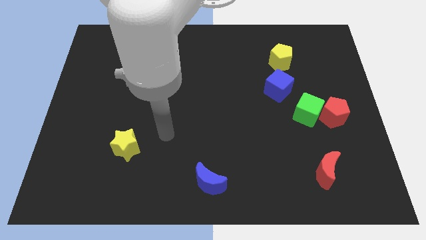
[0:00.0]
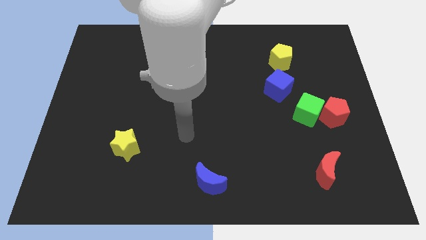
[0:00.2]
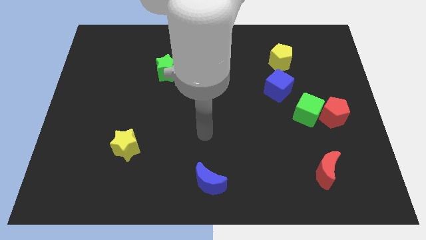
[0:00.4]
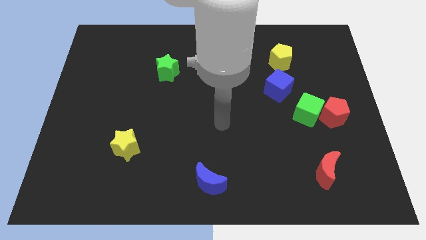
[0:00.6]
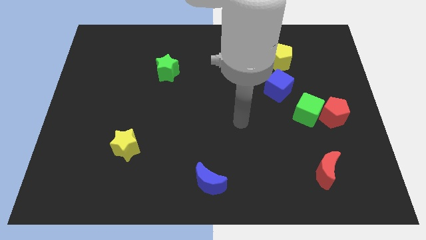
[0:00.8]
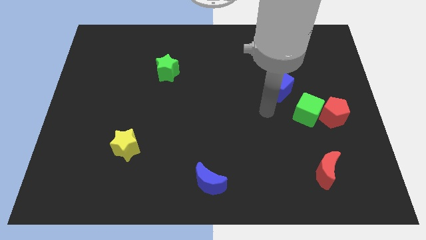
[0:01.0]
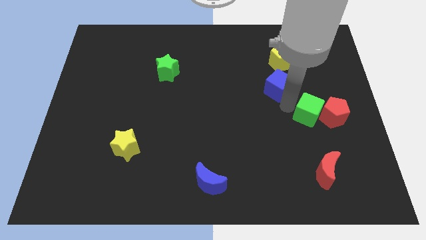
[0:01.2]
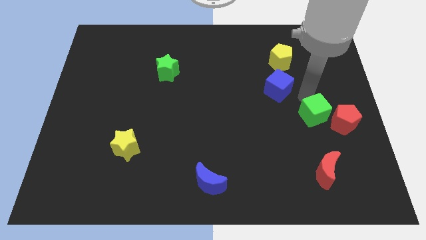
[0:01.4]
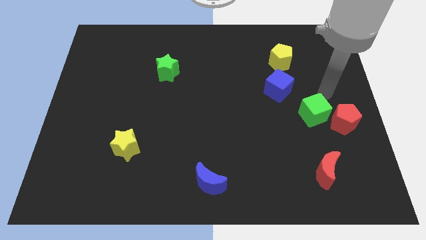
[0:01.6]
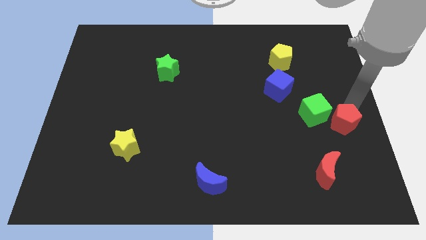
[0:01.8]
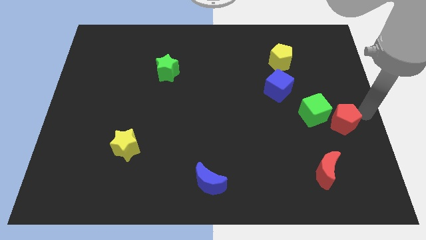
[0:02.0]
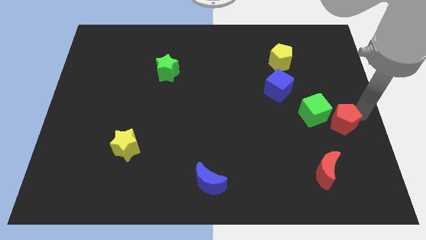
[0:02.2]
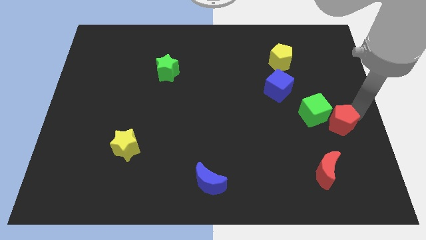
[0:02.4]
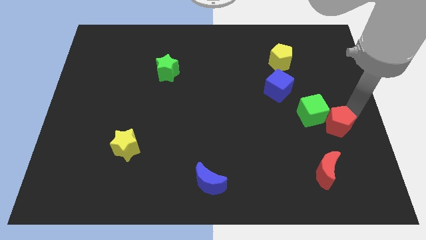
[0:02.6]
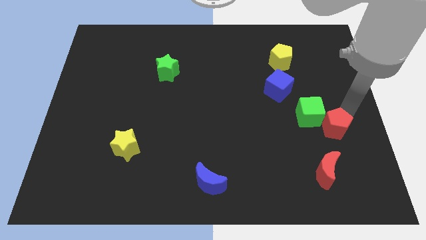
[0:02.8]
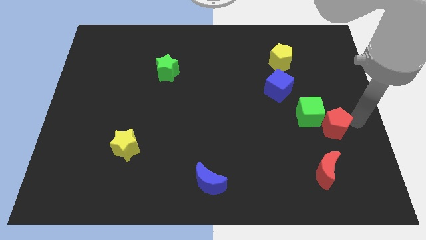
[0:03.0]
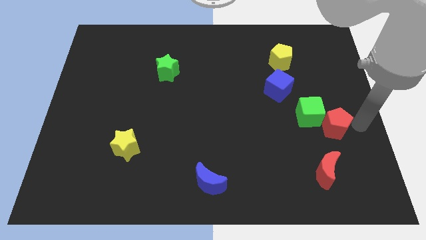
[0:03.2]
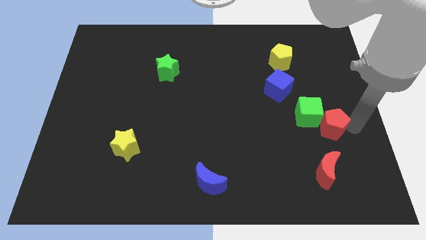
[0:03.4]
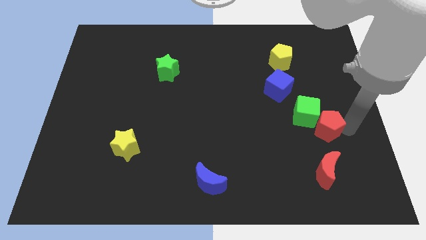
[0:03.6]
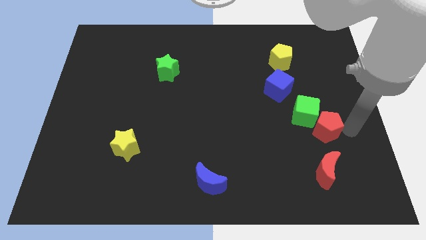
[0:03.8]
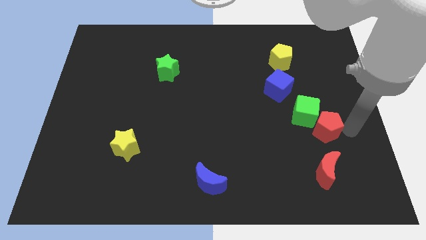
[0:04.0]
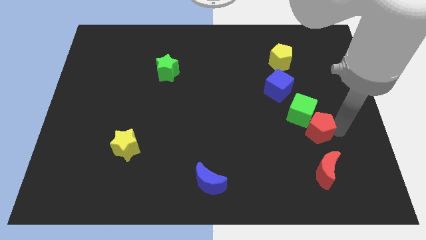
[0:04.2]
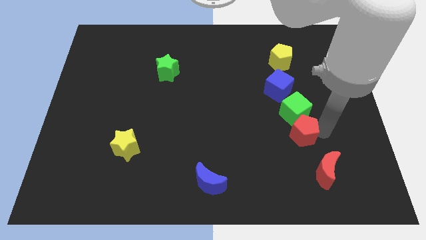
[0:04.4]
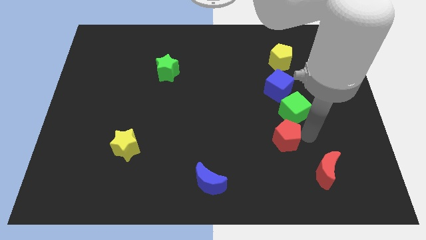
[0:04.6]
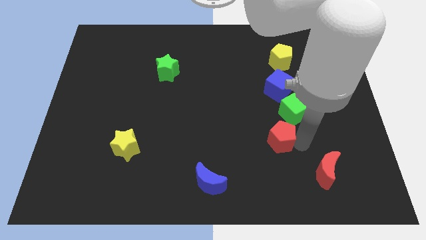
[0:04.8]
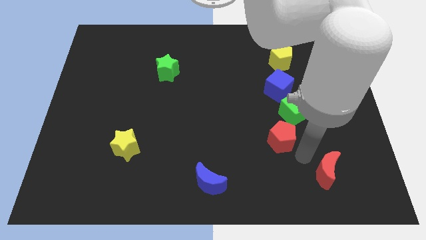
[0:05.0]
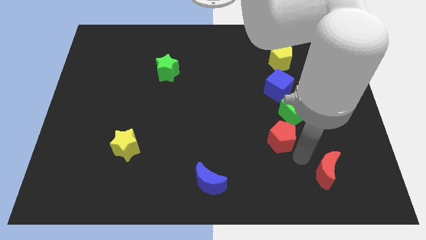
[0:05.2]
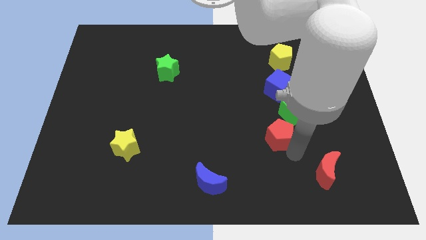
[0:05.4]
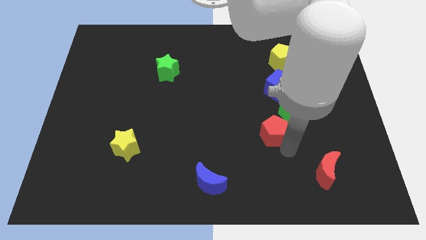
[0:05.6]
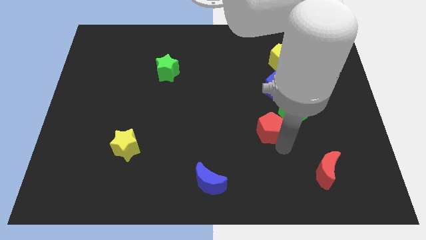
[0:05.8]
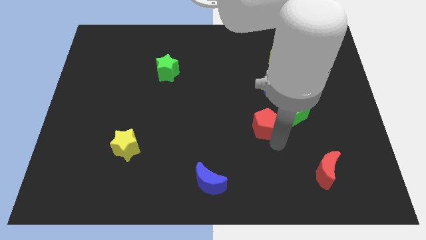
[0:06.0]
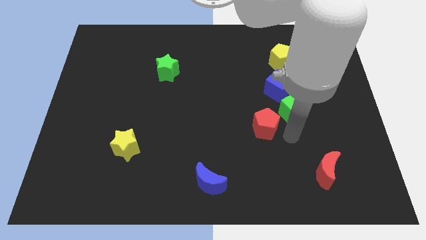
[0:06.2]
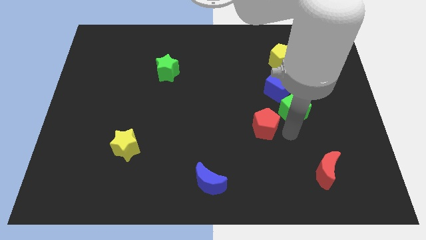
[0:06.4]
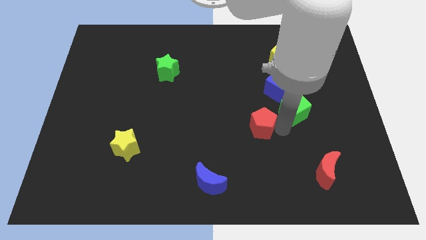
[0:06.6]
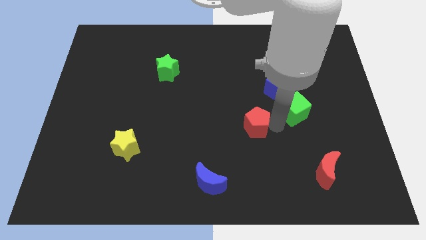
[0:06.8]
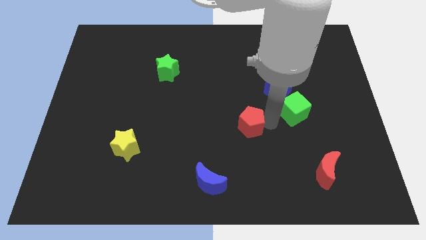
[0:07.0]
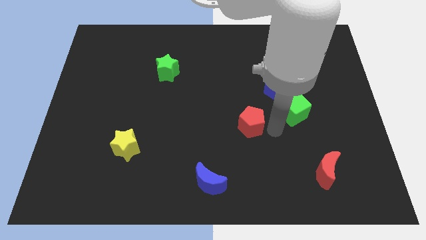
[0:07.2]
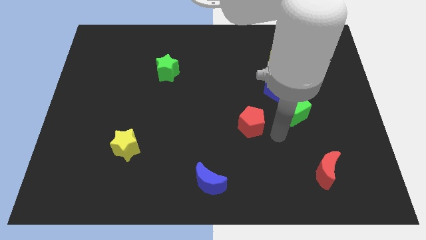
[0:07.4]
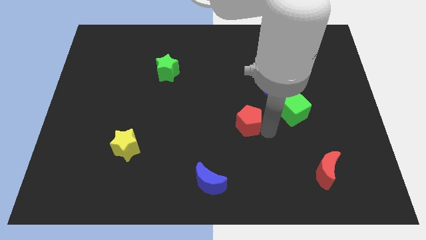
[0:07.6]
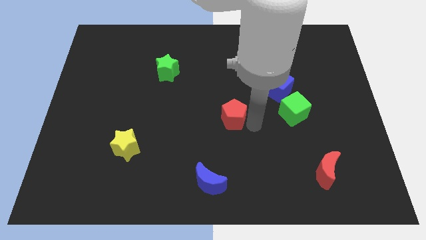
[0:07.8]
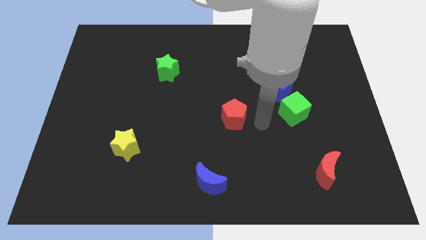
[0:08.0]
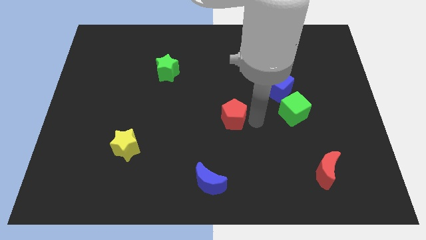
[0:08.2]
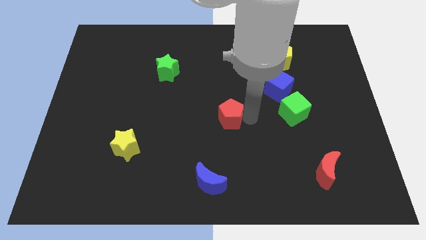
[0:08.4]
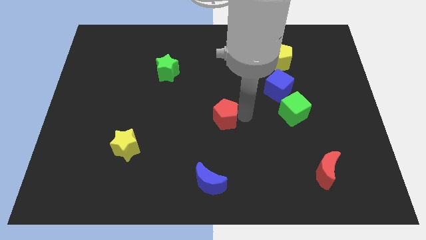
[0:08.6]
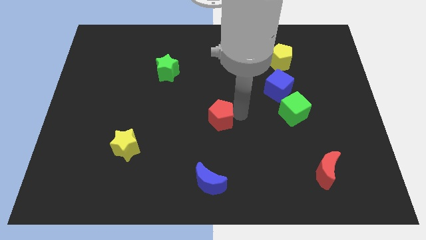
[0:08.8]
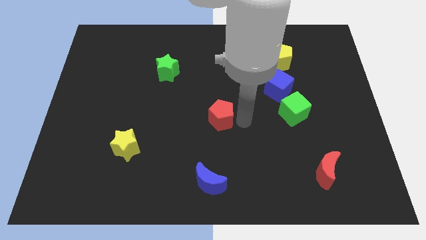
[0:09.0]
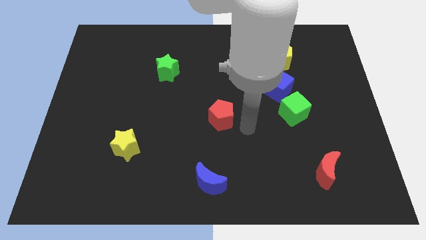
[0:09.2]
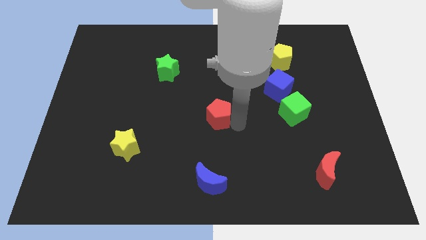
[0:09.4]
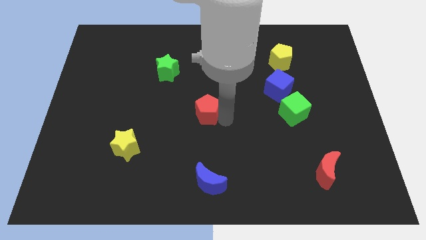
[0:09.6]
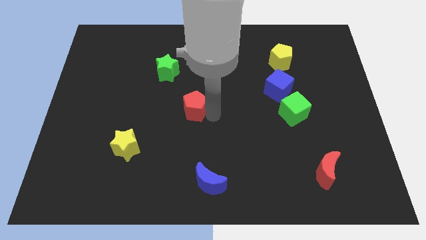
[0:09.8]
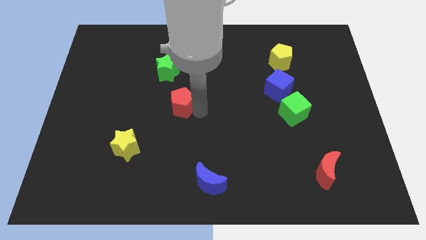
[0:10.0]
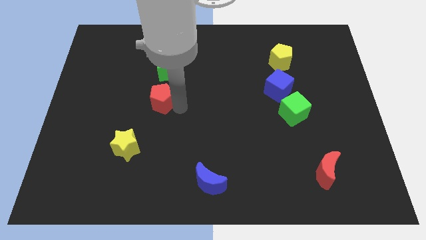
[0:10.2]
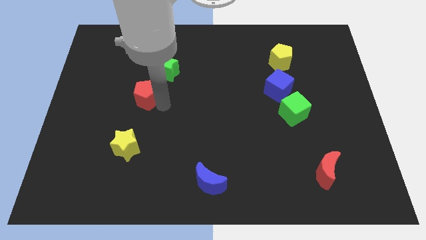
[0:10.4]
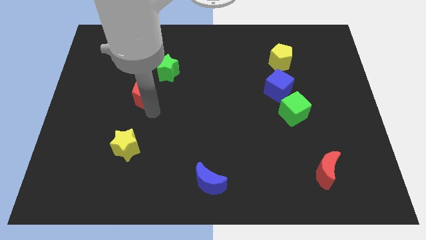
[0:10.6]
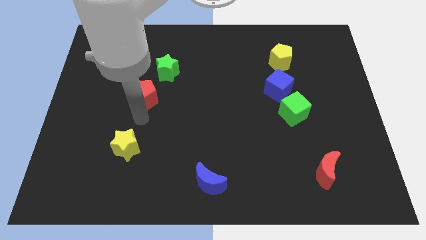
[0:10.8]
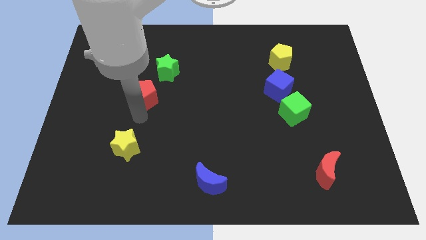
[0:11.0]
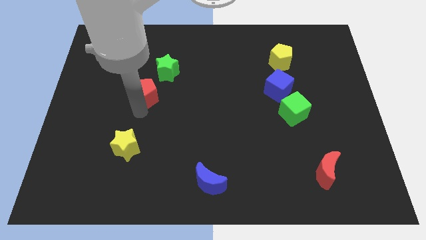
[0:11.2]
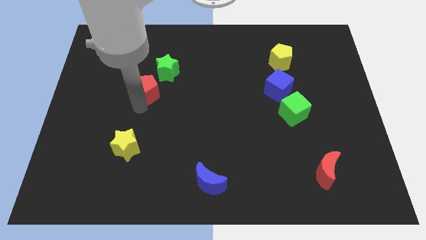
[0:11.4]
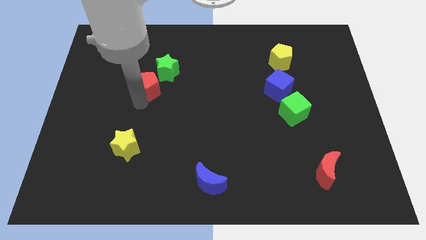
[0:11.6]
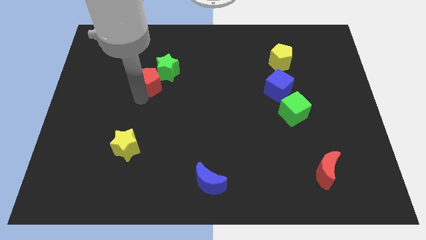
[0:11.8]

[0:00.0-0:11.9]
push the red pentagon left of the green star

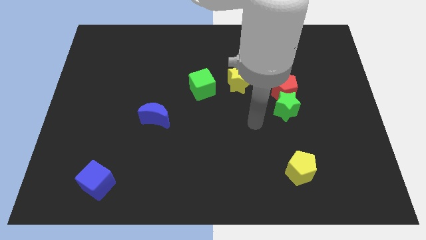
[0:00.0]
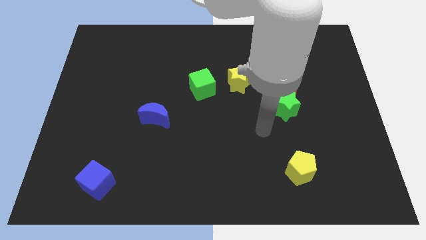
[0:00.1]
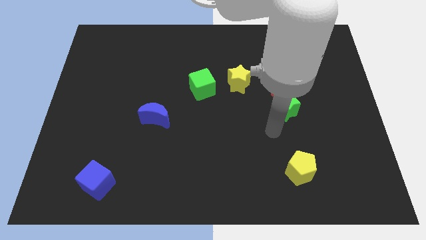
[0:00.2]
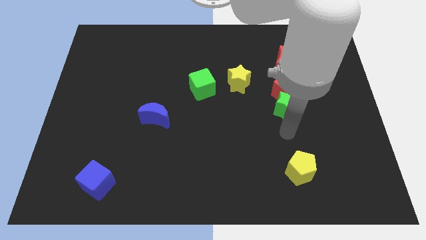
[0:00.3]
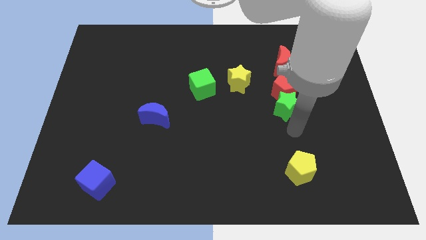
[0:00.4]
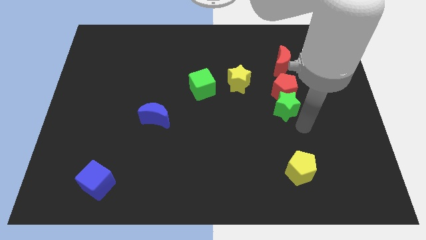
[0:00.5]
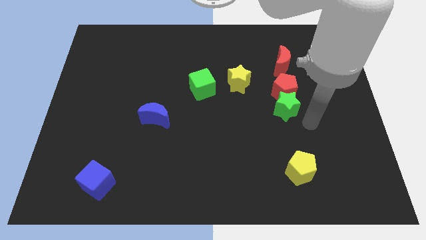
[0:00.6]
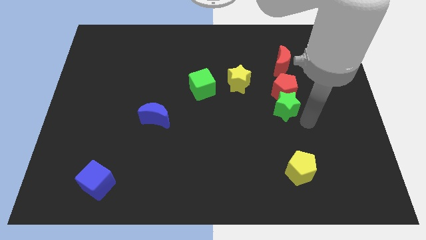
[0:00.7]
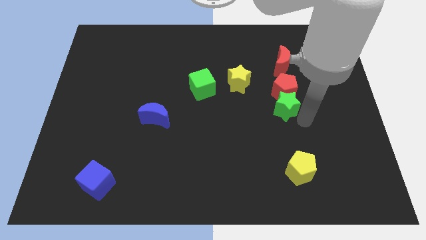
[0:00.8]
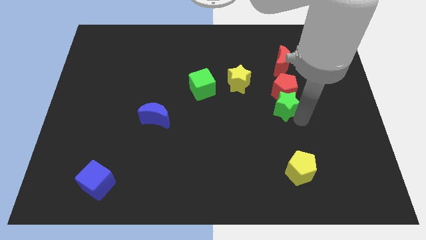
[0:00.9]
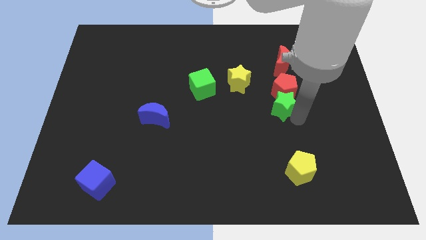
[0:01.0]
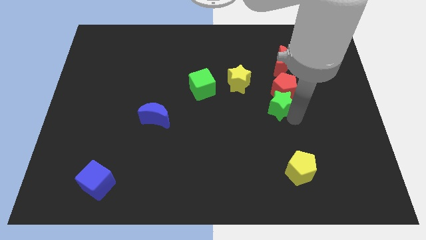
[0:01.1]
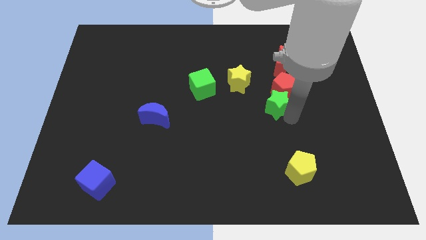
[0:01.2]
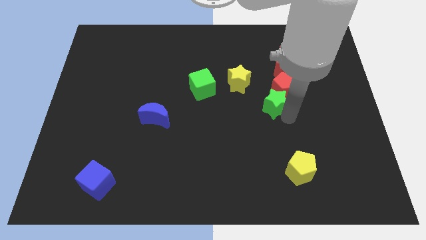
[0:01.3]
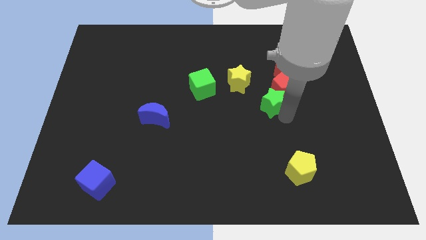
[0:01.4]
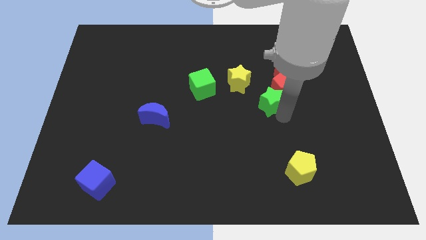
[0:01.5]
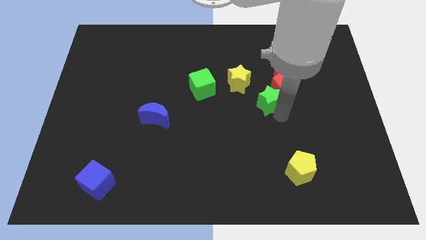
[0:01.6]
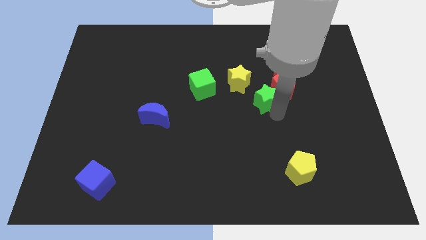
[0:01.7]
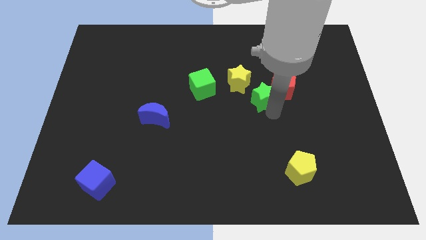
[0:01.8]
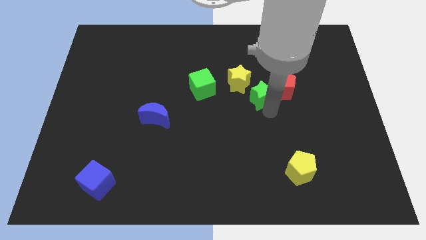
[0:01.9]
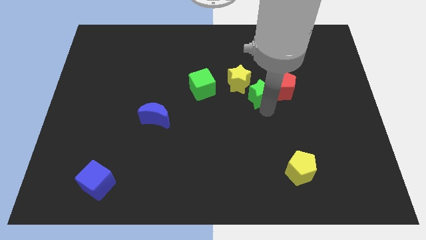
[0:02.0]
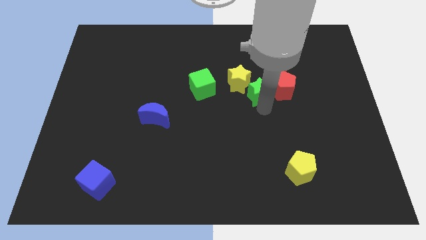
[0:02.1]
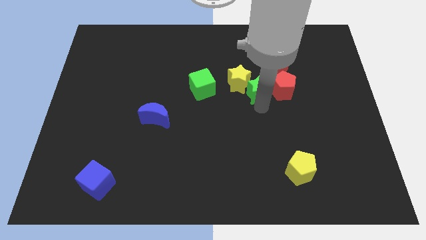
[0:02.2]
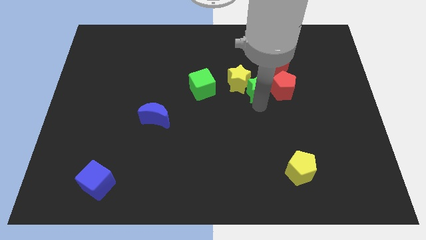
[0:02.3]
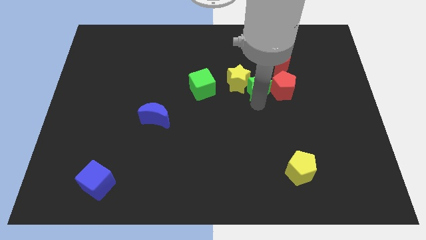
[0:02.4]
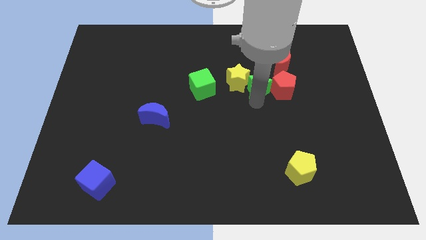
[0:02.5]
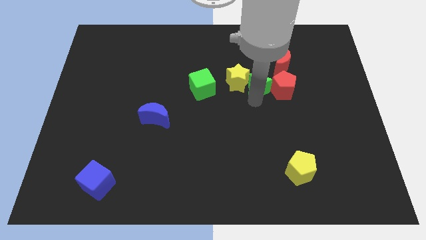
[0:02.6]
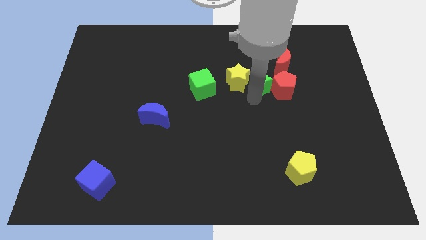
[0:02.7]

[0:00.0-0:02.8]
put the green star to the top right side of the yellow star
